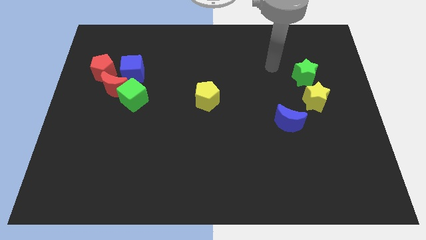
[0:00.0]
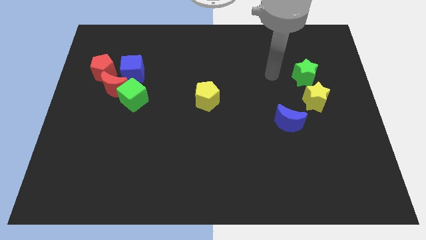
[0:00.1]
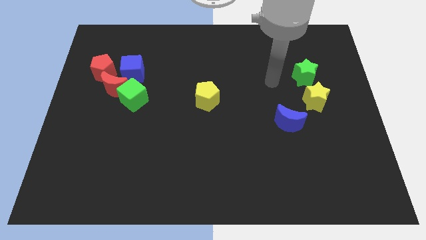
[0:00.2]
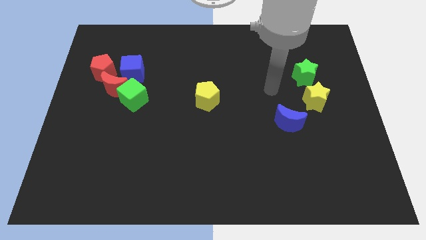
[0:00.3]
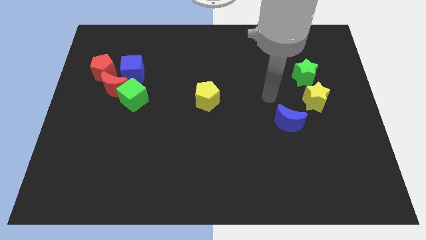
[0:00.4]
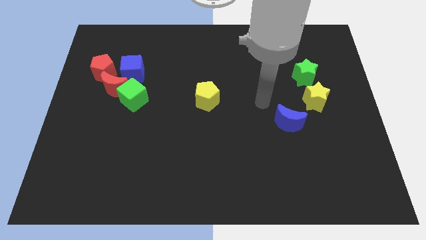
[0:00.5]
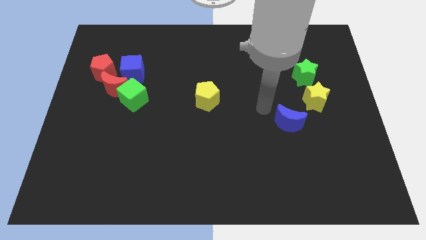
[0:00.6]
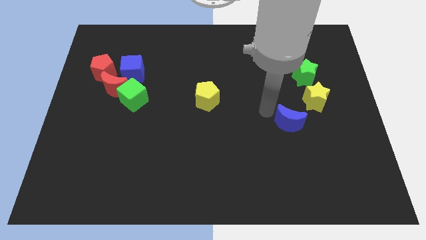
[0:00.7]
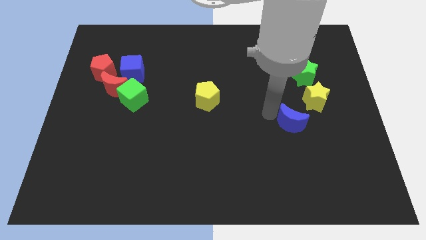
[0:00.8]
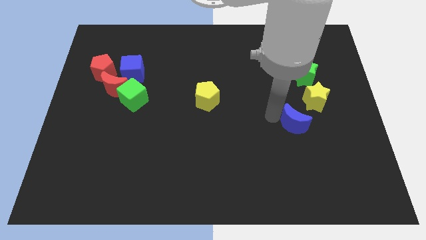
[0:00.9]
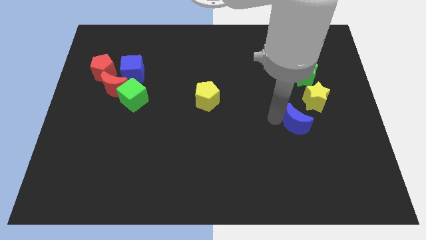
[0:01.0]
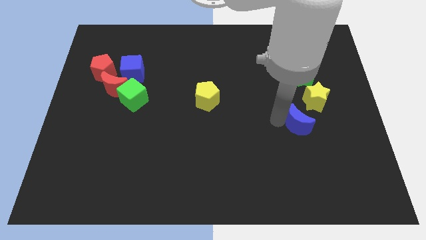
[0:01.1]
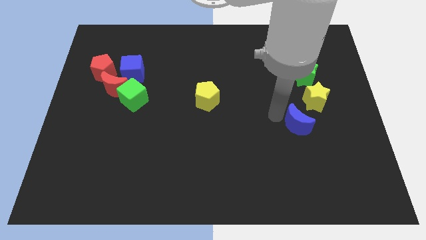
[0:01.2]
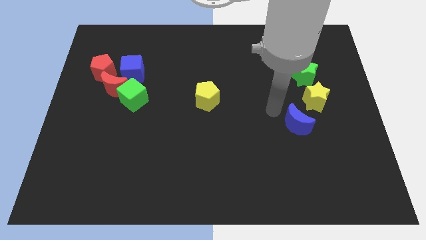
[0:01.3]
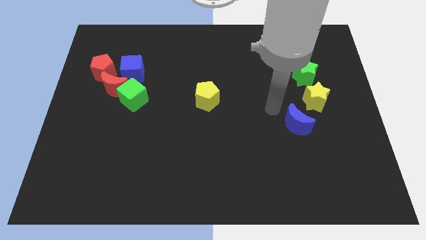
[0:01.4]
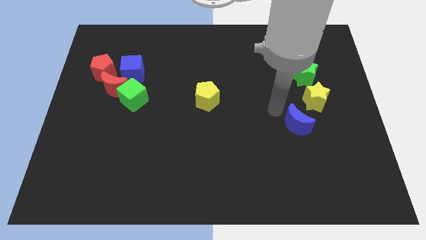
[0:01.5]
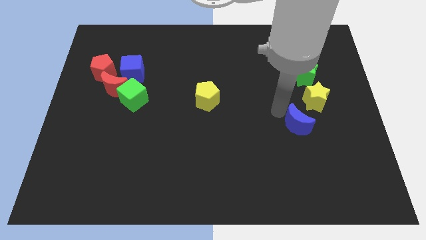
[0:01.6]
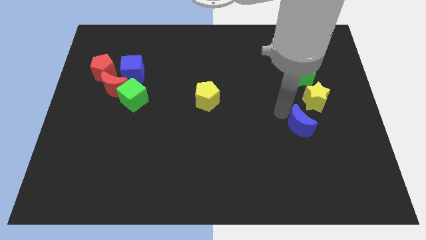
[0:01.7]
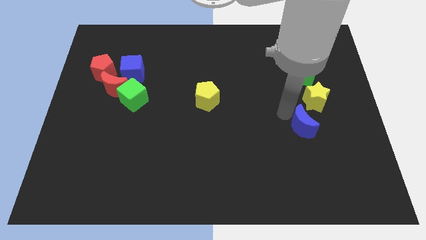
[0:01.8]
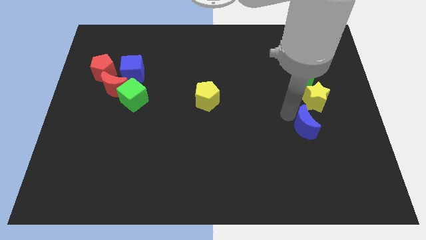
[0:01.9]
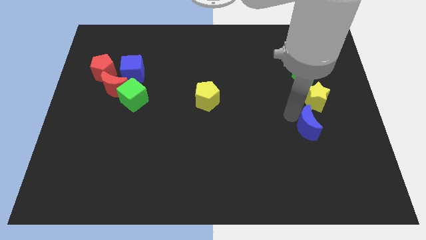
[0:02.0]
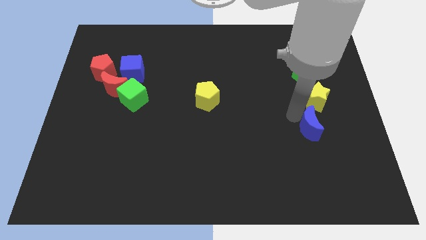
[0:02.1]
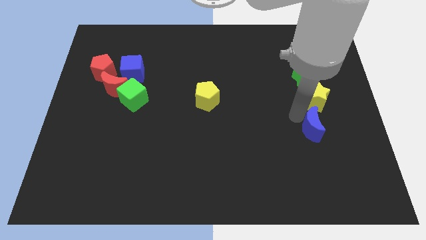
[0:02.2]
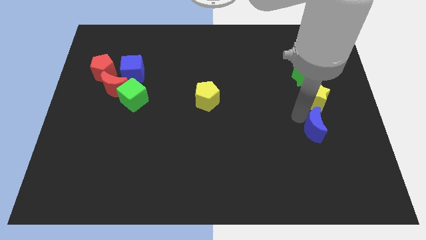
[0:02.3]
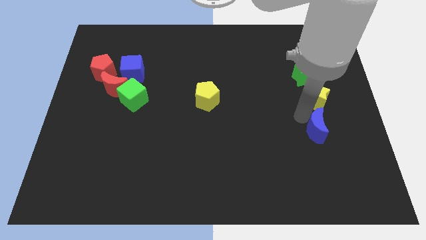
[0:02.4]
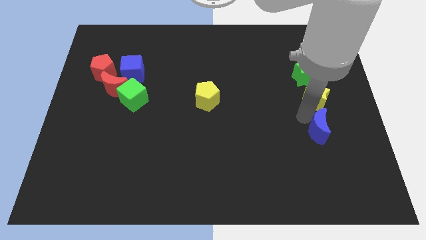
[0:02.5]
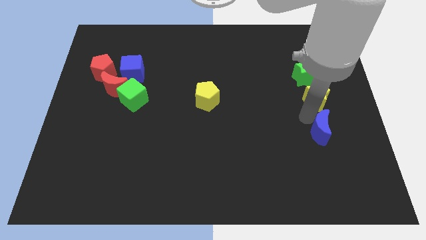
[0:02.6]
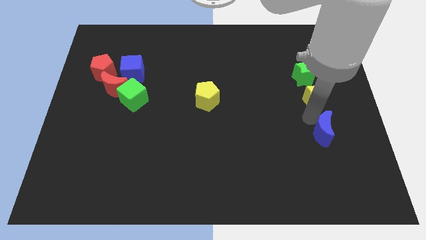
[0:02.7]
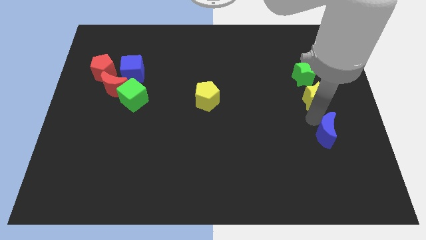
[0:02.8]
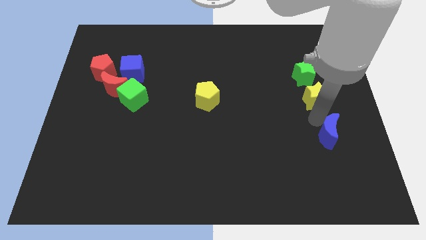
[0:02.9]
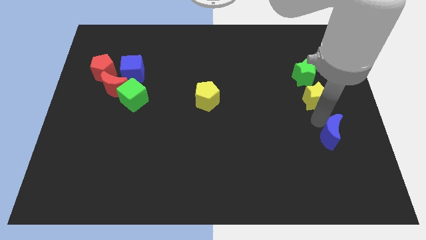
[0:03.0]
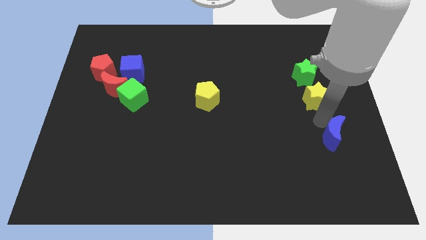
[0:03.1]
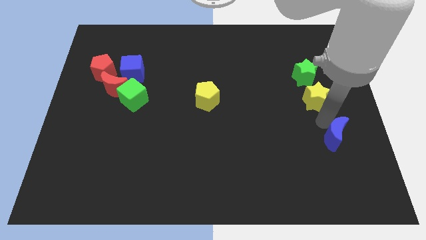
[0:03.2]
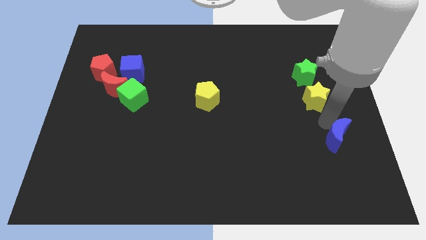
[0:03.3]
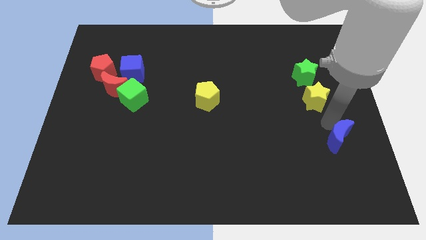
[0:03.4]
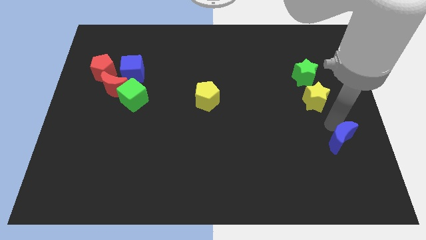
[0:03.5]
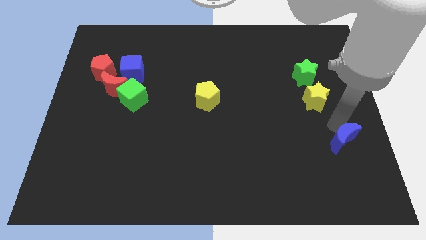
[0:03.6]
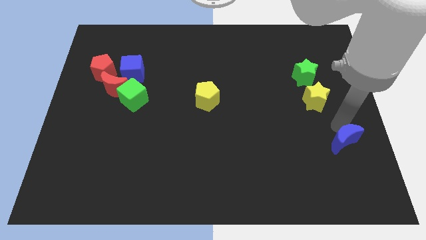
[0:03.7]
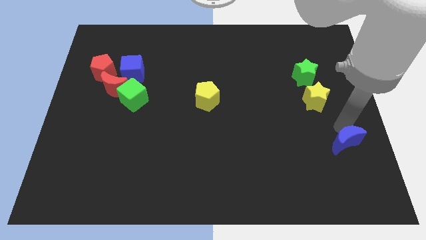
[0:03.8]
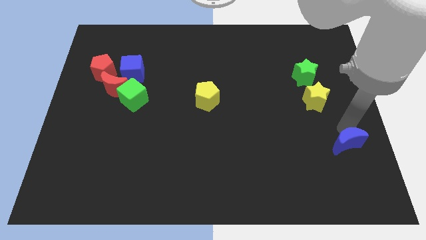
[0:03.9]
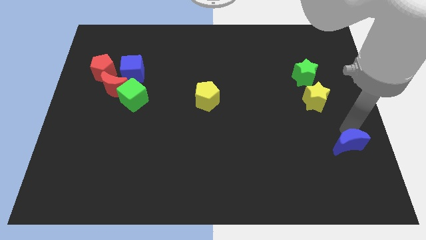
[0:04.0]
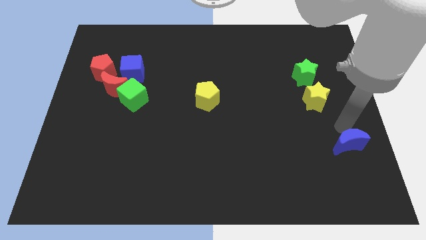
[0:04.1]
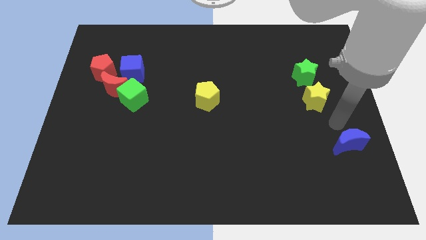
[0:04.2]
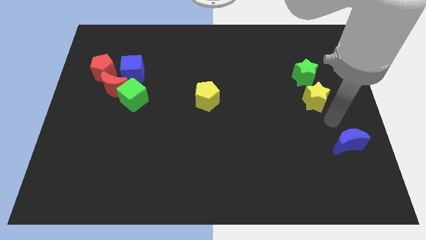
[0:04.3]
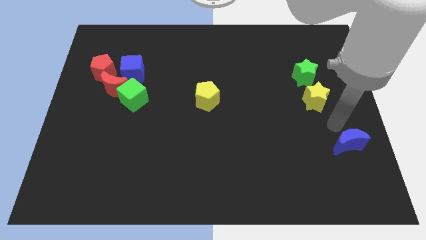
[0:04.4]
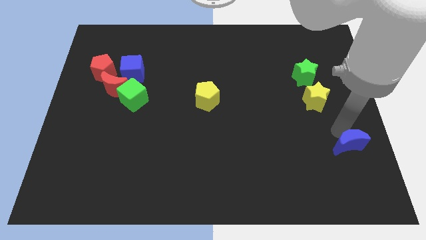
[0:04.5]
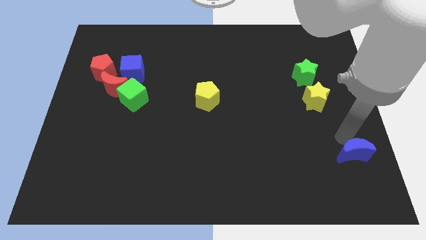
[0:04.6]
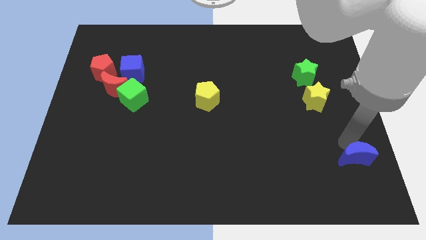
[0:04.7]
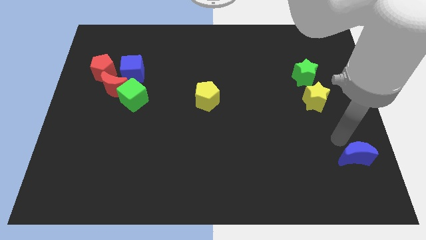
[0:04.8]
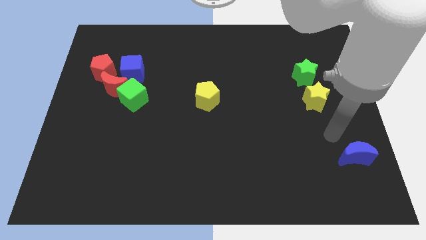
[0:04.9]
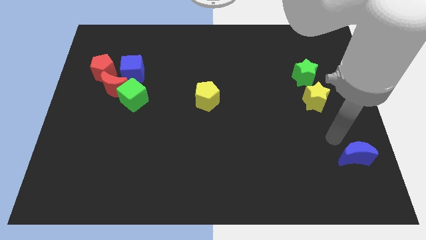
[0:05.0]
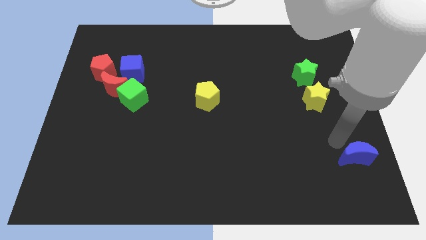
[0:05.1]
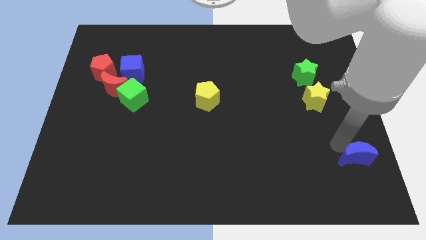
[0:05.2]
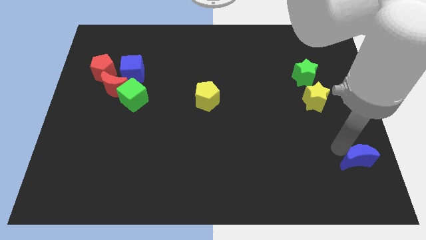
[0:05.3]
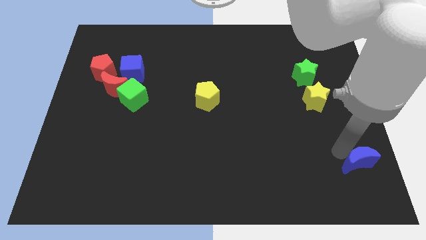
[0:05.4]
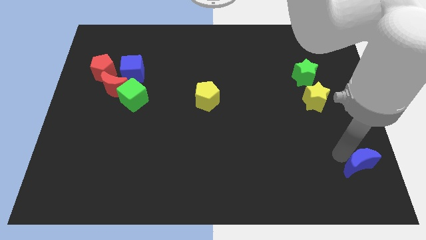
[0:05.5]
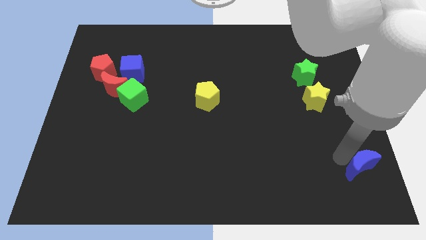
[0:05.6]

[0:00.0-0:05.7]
move the blue moon to the bottom right corner
